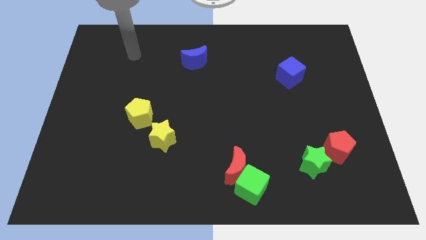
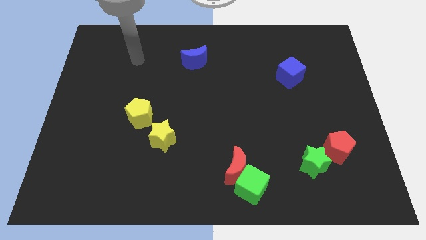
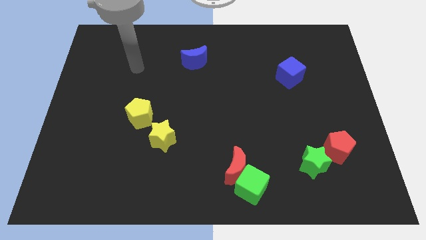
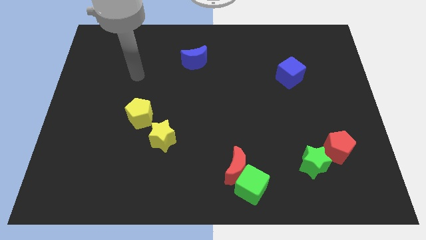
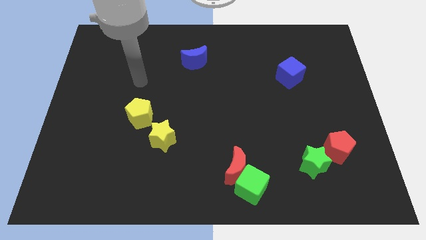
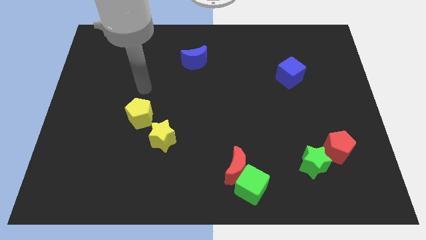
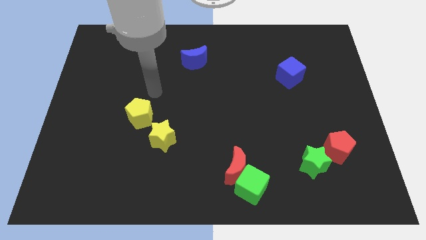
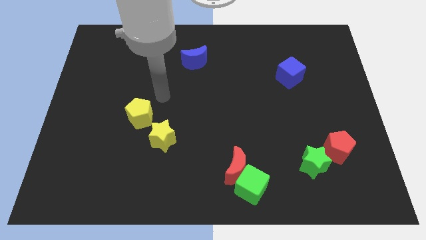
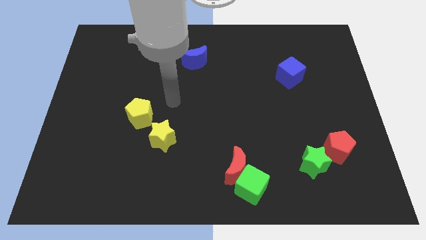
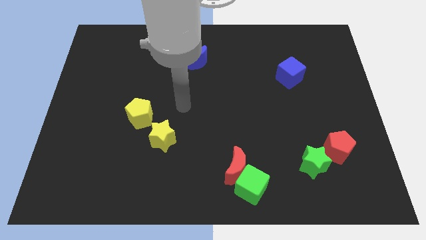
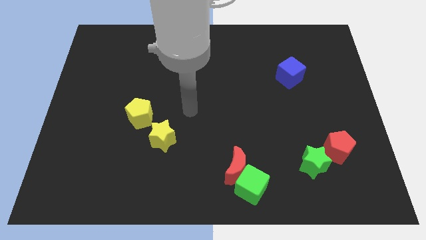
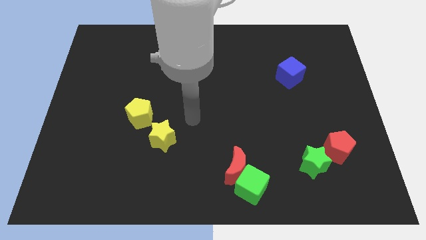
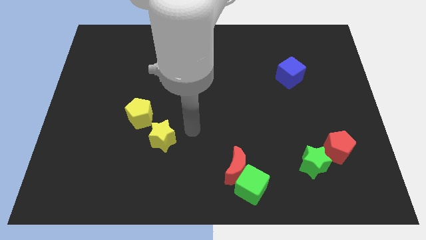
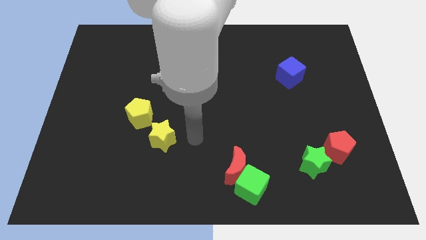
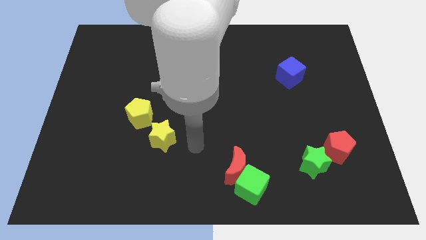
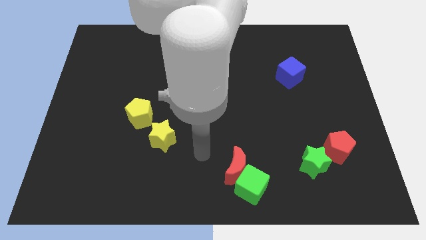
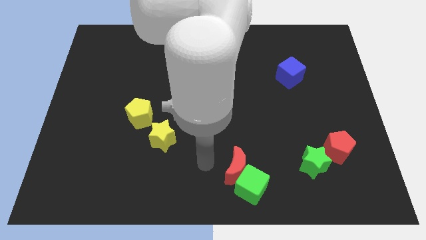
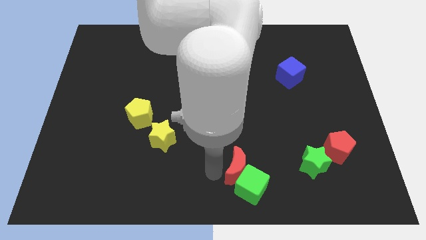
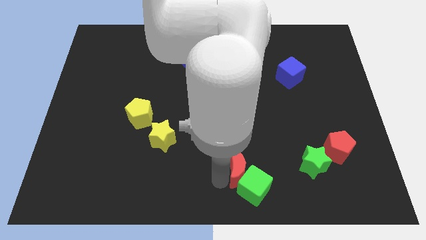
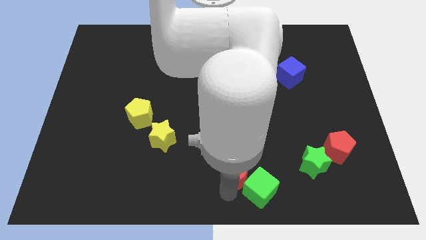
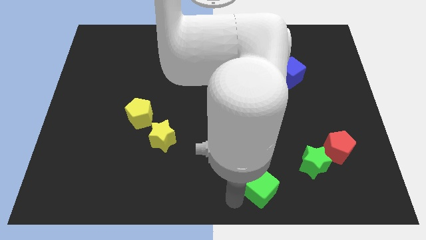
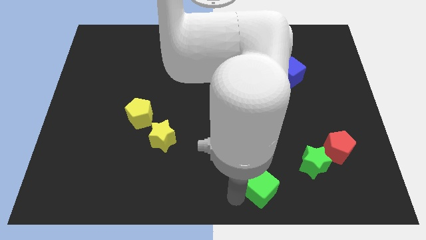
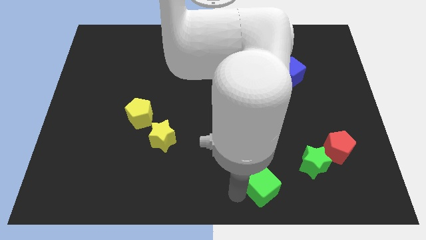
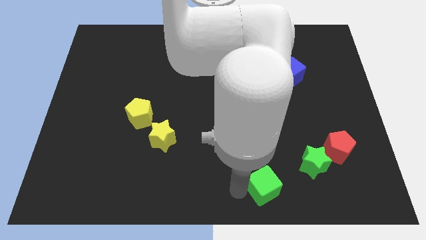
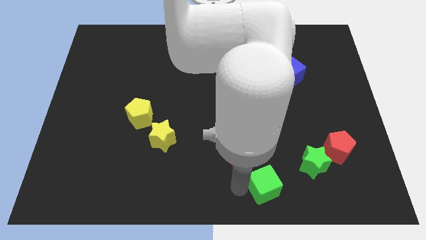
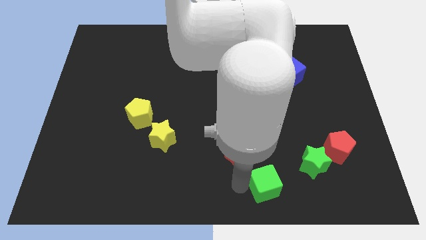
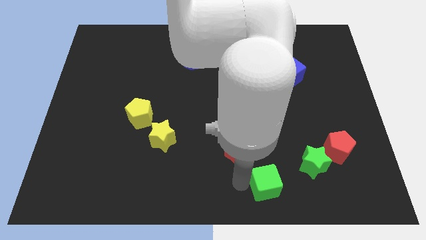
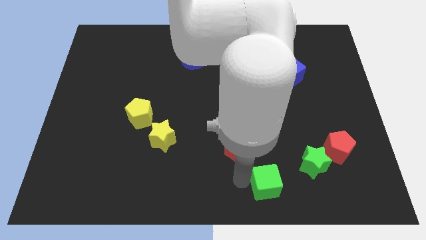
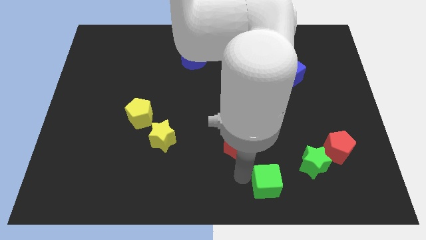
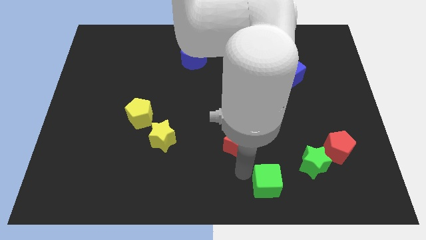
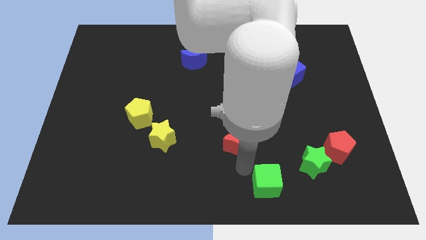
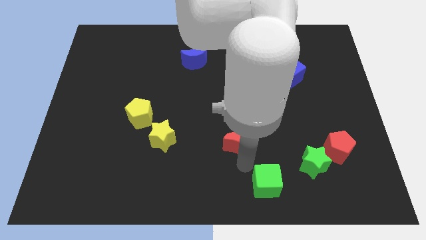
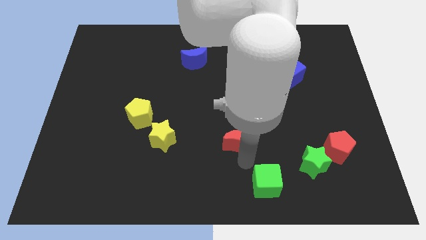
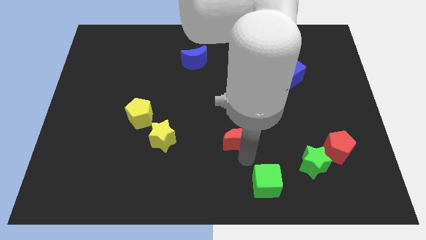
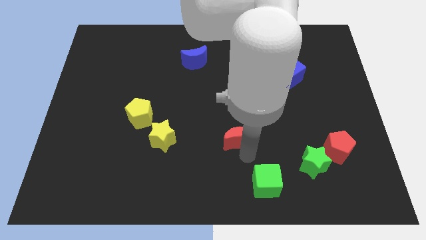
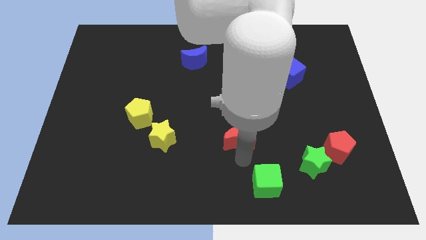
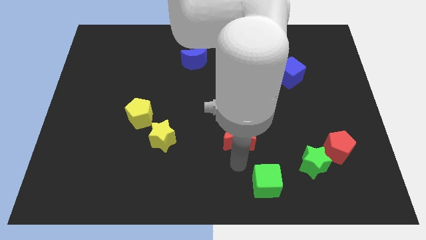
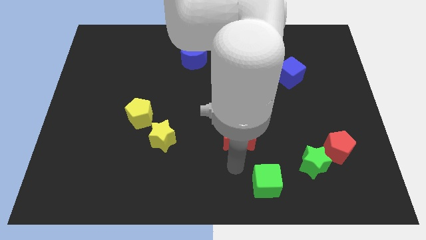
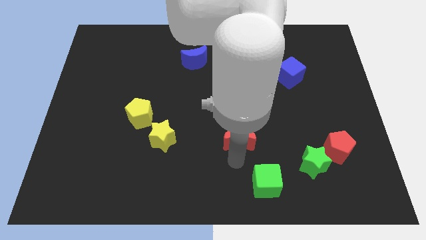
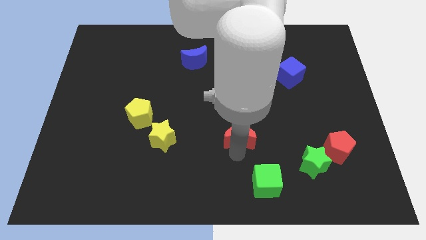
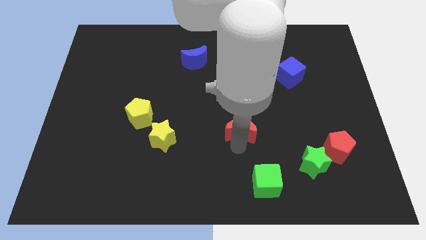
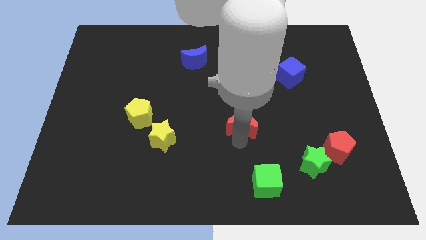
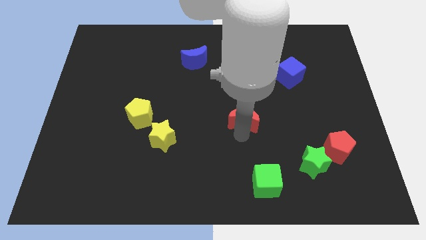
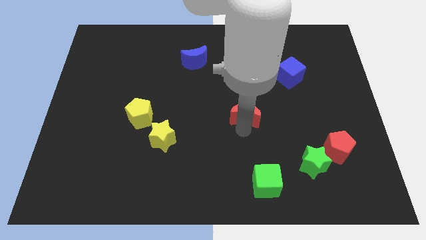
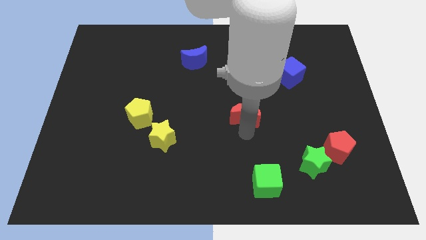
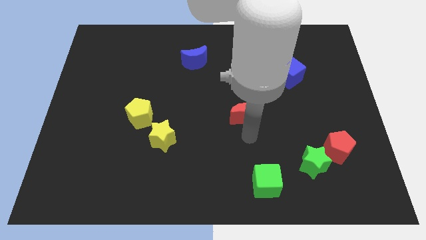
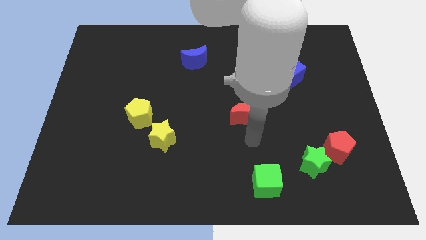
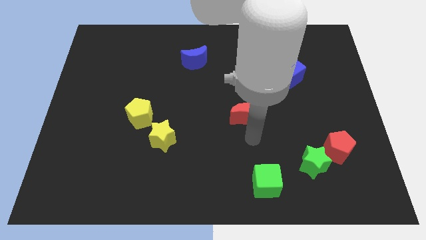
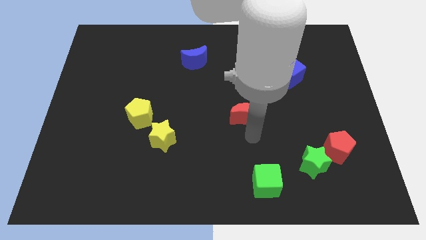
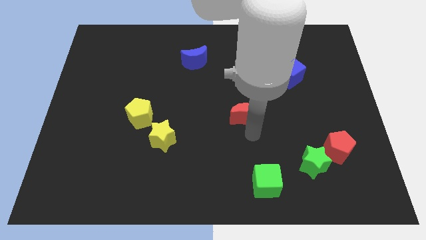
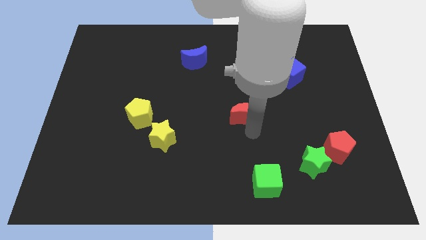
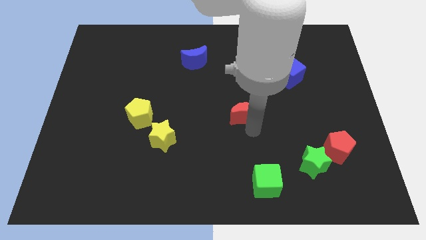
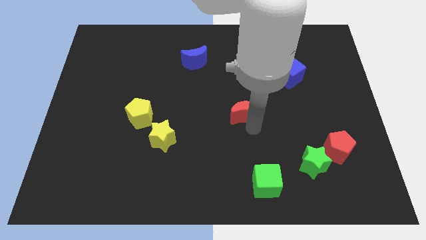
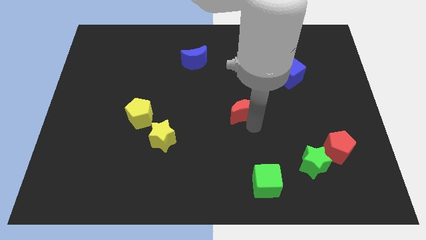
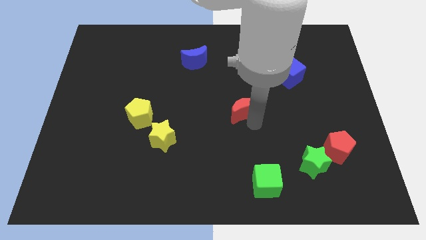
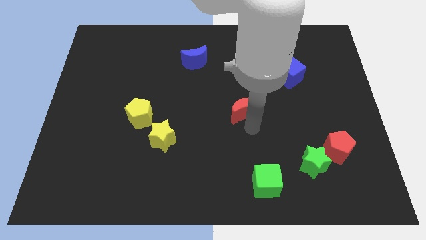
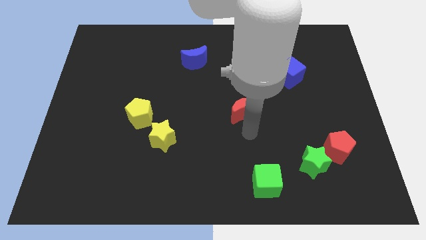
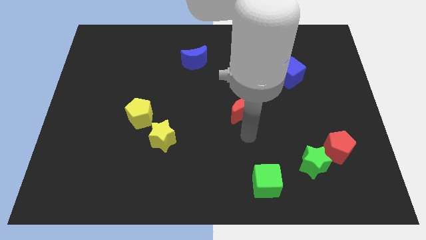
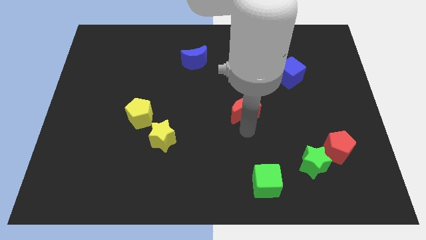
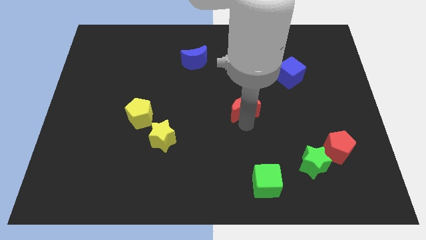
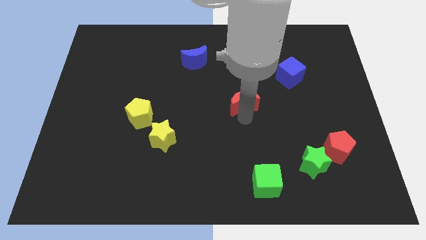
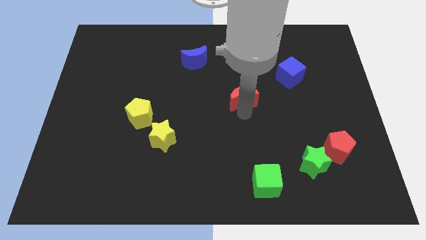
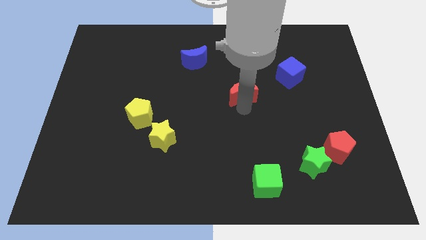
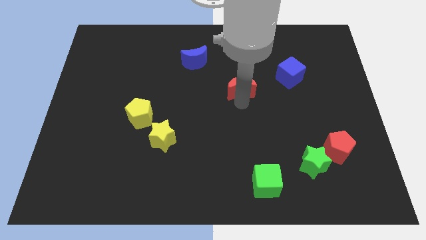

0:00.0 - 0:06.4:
put the red moon to the left side of the blue cube

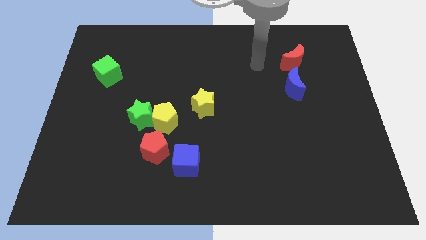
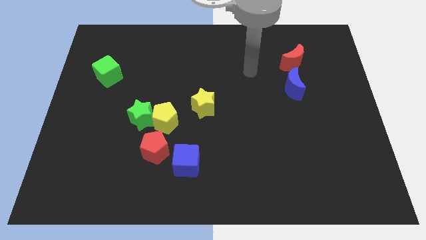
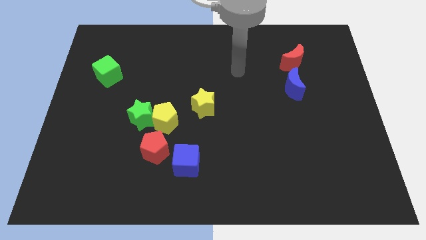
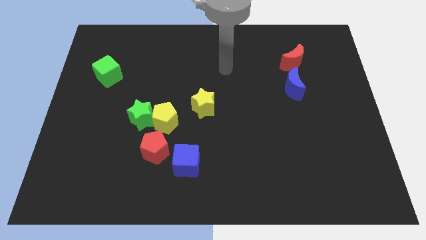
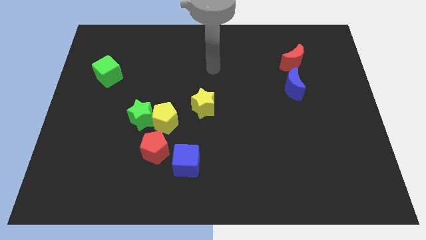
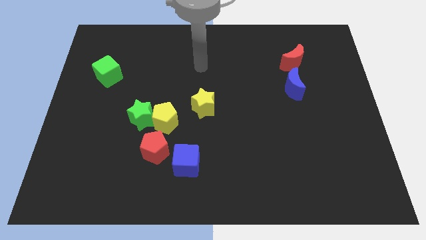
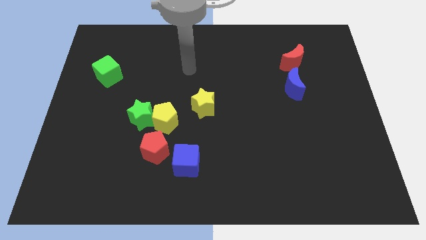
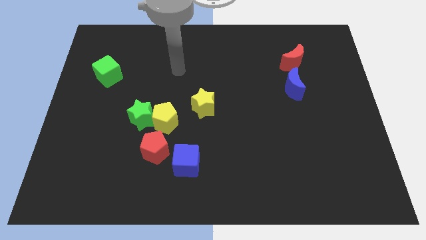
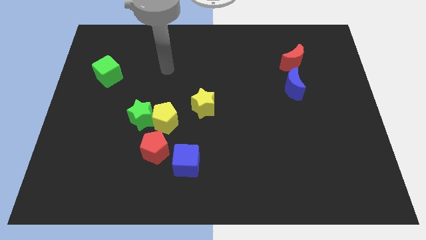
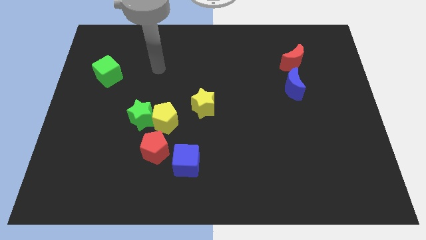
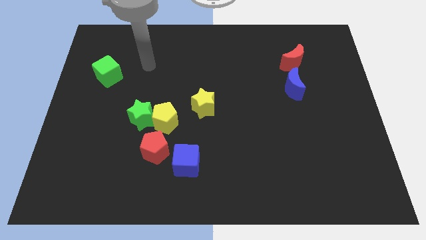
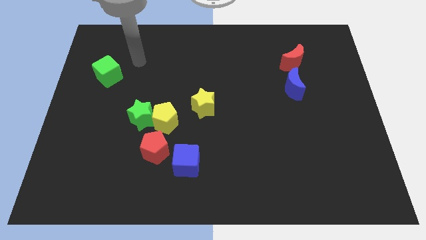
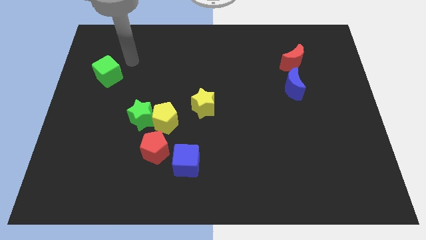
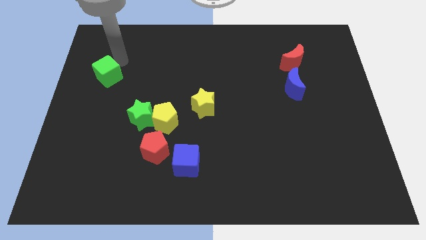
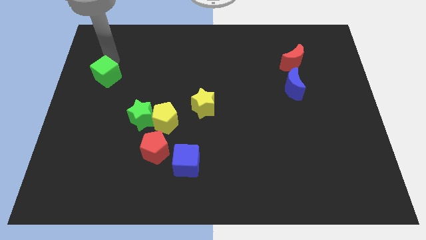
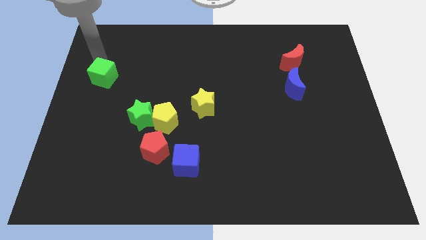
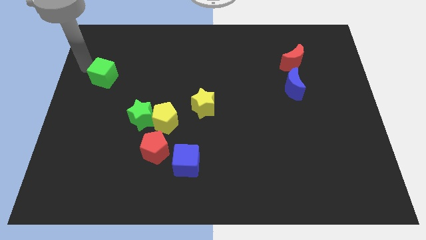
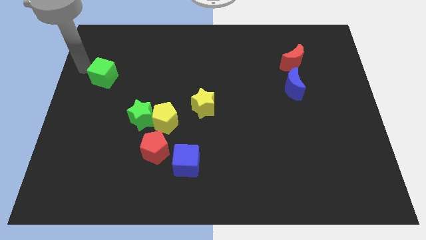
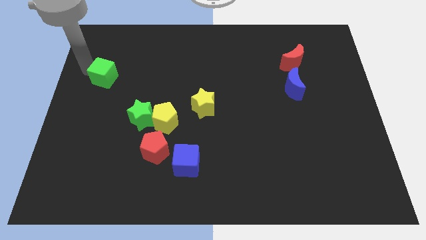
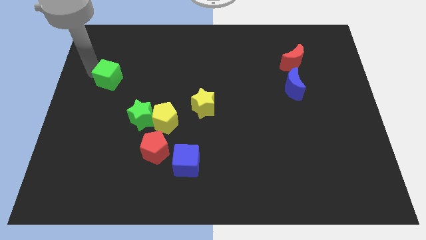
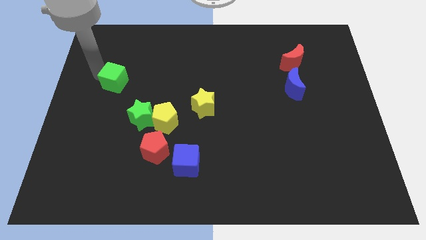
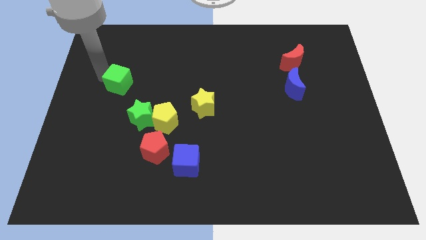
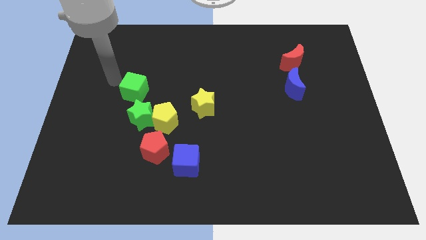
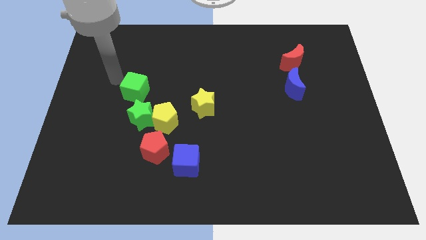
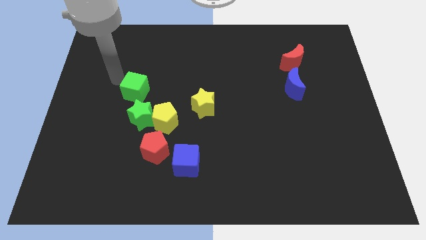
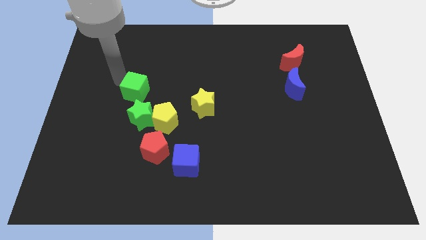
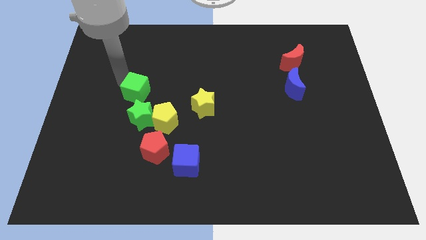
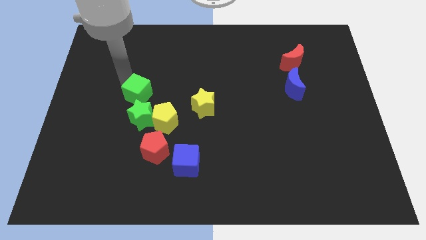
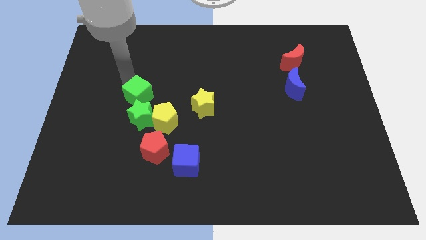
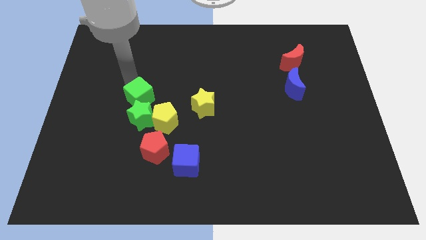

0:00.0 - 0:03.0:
slide the green cube left of the yellow star
